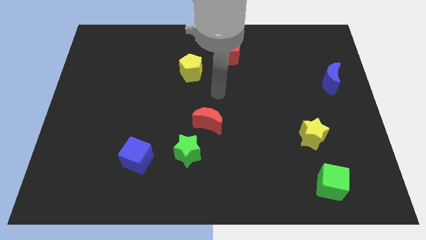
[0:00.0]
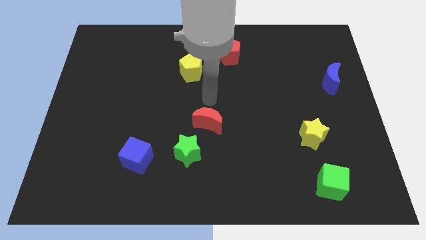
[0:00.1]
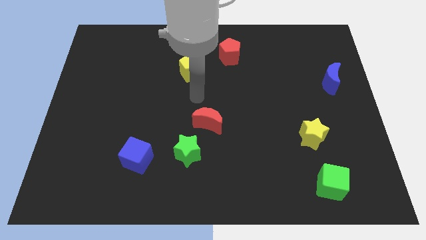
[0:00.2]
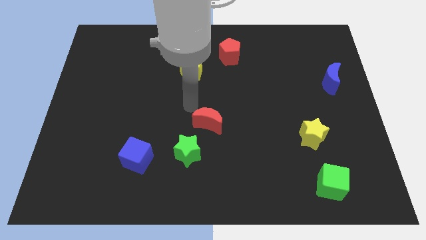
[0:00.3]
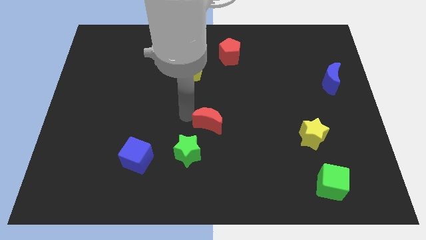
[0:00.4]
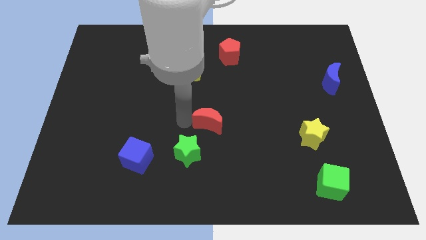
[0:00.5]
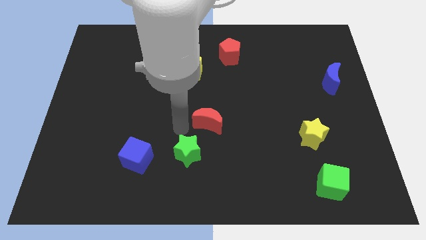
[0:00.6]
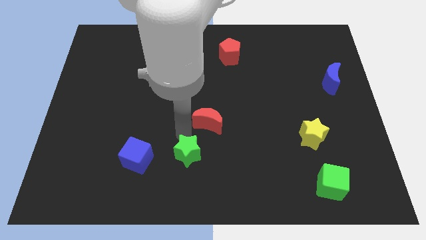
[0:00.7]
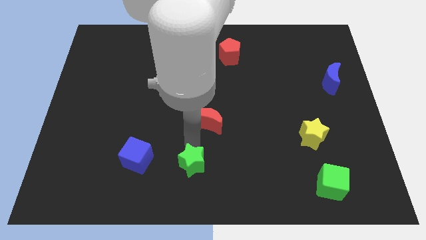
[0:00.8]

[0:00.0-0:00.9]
pull the red moon apart from the green star

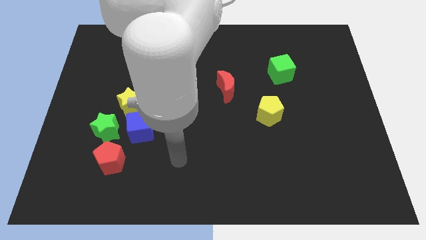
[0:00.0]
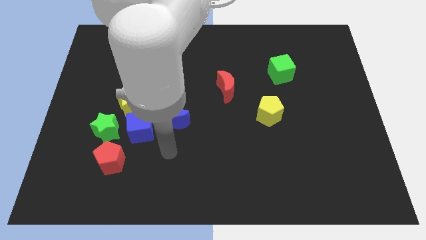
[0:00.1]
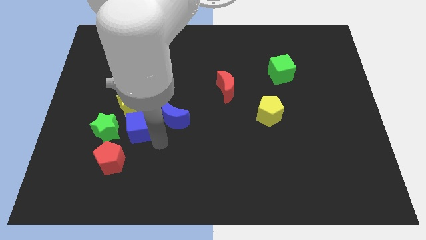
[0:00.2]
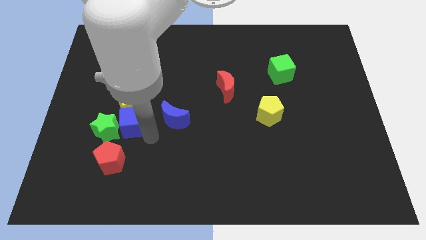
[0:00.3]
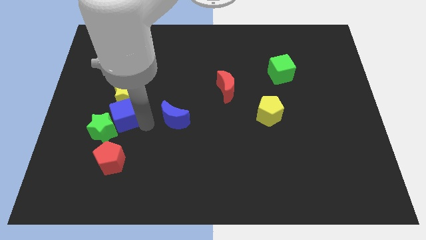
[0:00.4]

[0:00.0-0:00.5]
separate the blue moon from the blue cube

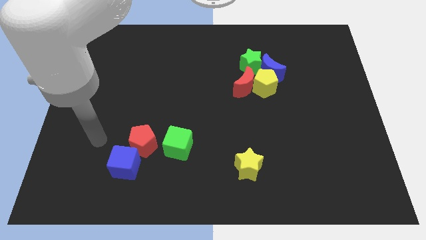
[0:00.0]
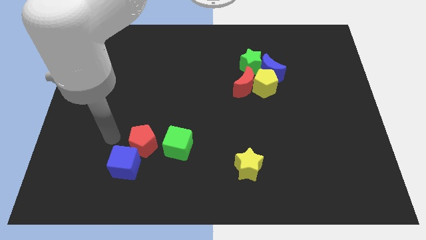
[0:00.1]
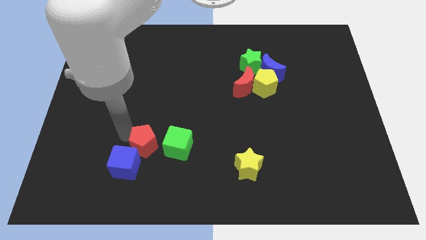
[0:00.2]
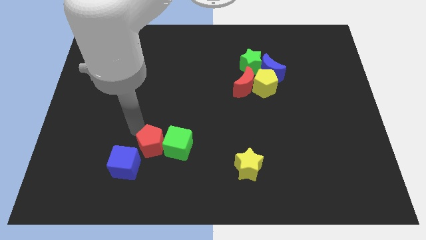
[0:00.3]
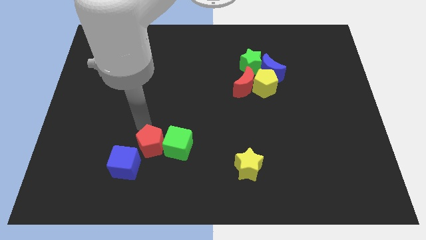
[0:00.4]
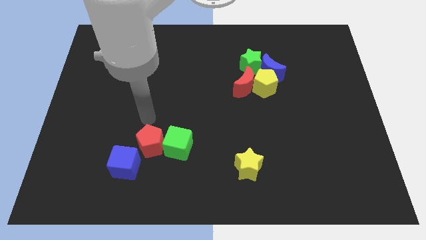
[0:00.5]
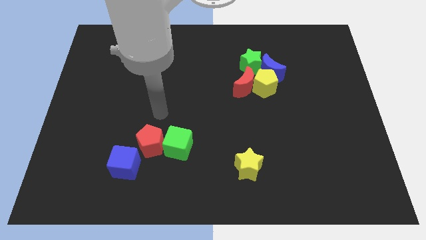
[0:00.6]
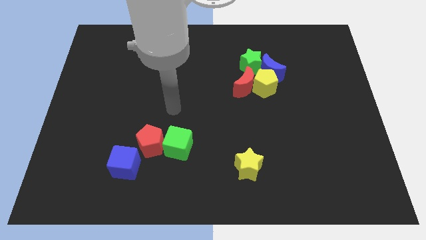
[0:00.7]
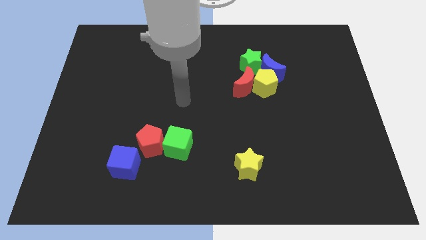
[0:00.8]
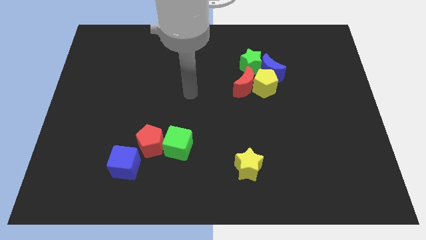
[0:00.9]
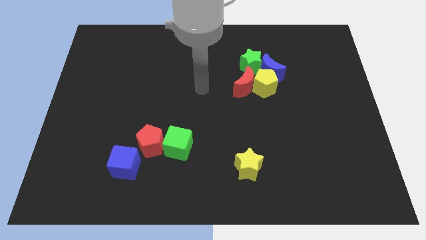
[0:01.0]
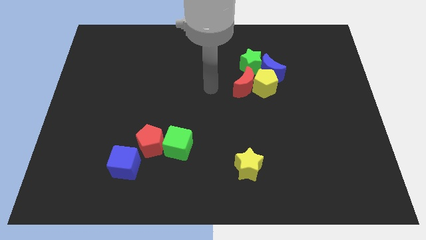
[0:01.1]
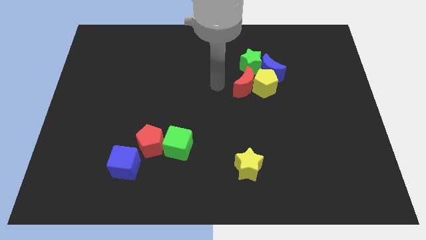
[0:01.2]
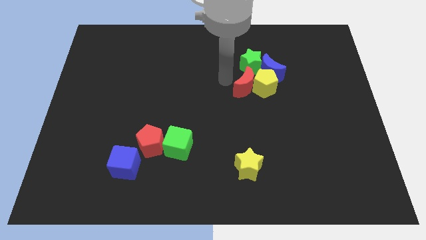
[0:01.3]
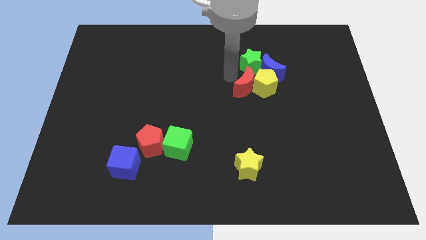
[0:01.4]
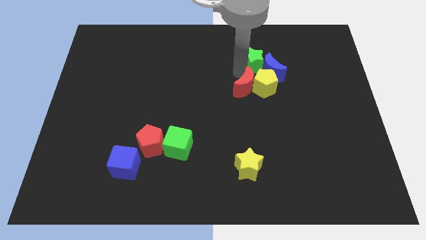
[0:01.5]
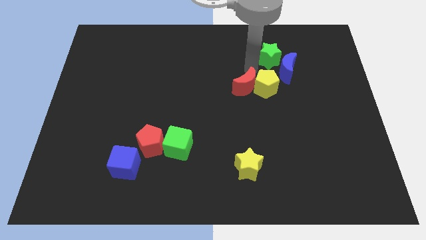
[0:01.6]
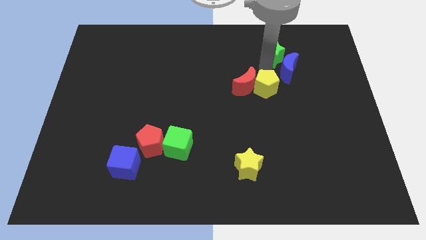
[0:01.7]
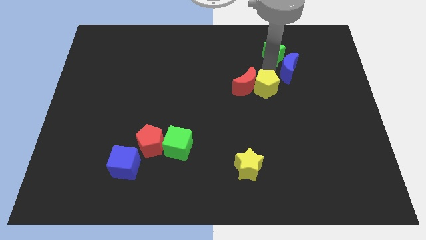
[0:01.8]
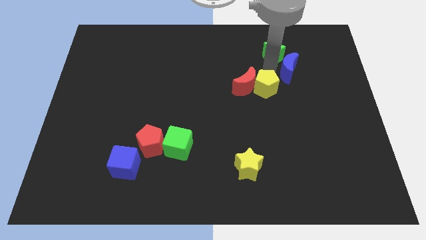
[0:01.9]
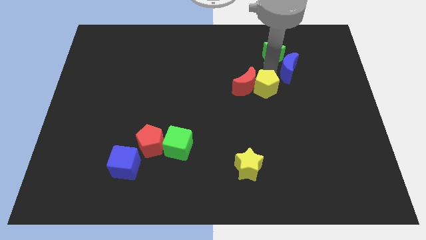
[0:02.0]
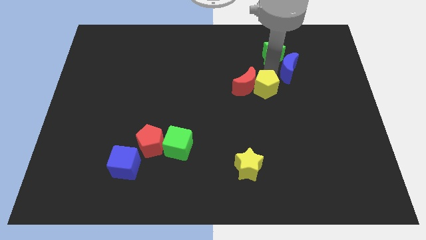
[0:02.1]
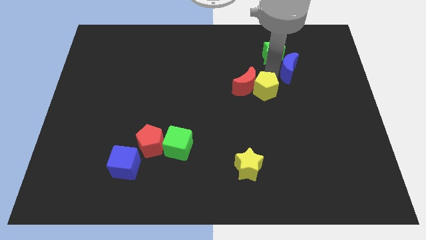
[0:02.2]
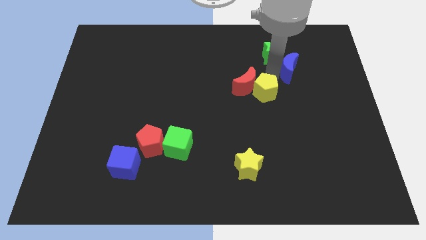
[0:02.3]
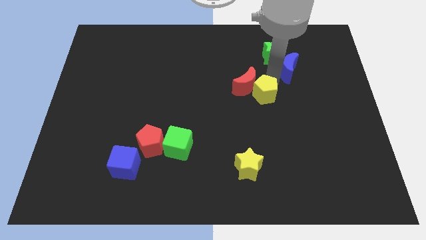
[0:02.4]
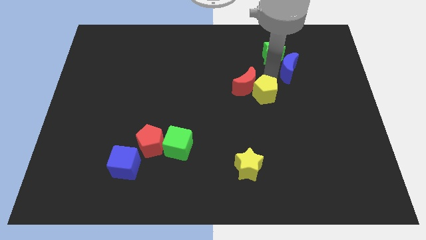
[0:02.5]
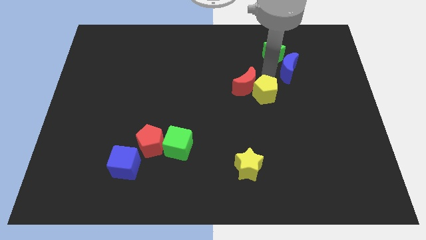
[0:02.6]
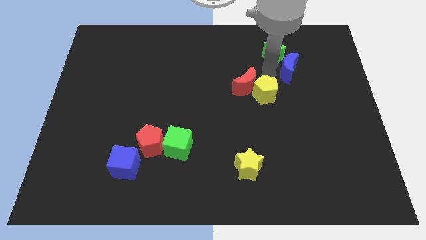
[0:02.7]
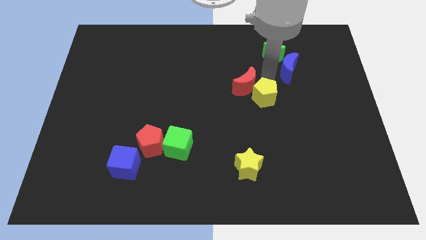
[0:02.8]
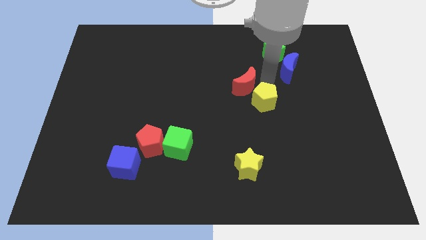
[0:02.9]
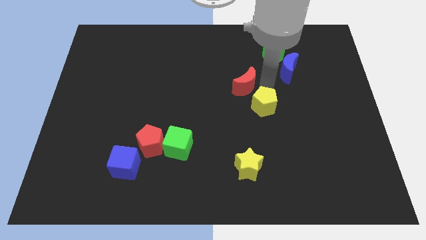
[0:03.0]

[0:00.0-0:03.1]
separate the yellow pentagon from the blue moon, red moon, and green star

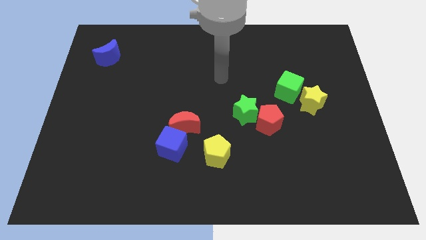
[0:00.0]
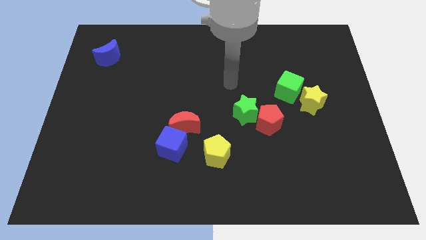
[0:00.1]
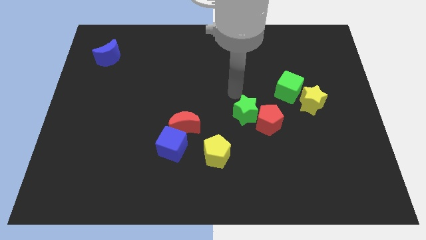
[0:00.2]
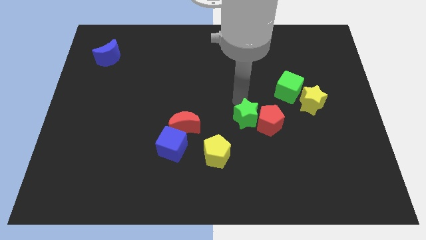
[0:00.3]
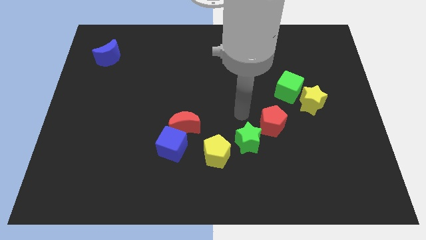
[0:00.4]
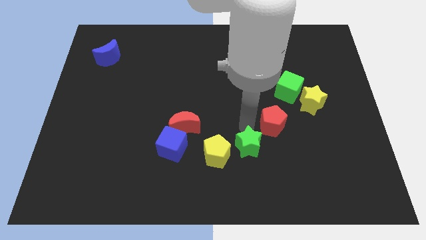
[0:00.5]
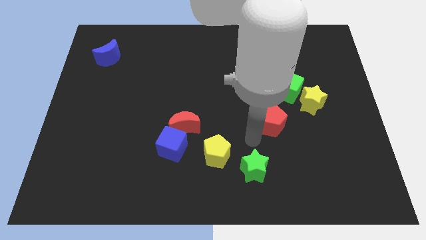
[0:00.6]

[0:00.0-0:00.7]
move the red pentagon away from the green star

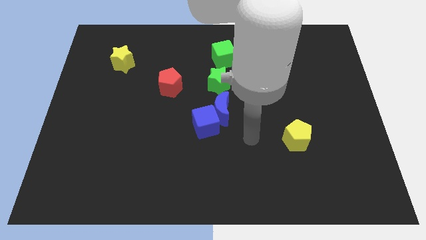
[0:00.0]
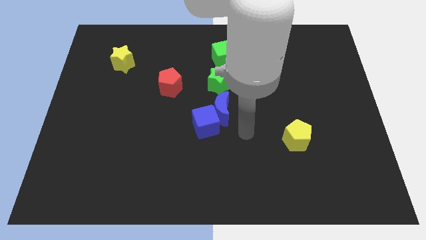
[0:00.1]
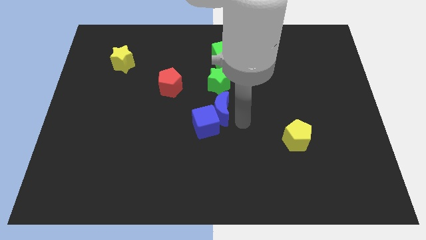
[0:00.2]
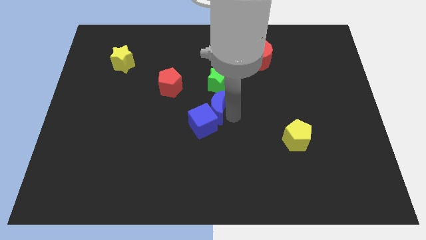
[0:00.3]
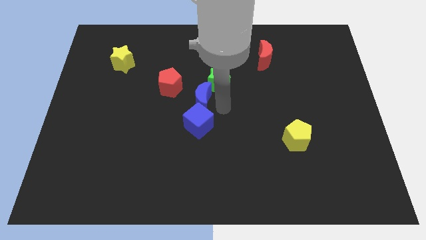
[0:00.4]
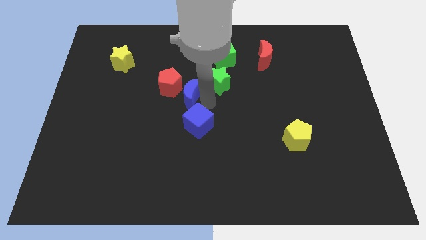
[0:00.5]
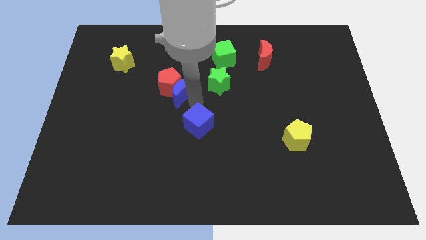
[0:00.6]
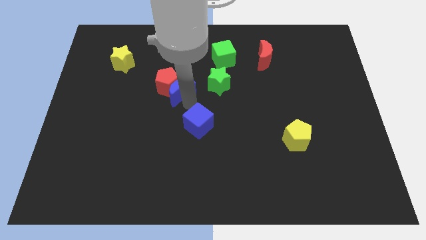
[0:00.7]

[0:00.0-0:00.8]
pull the blue cube apart from the blue moon

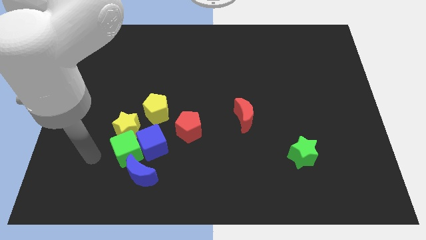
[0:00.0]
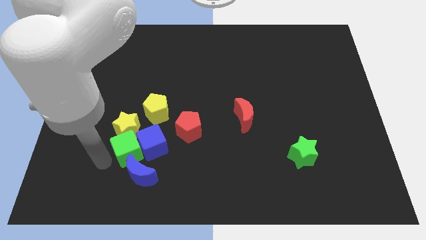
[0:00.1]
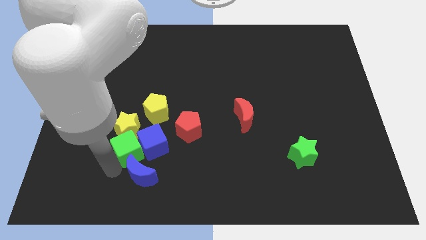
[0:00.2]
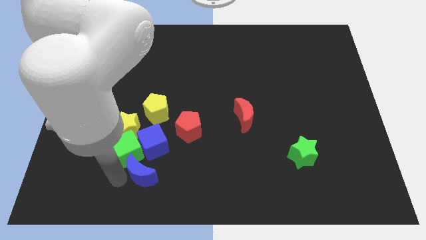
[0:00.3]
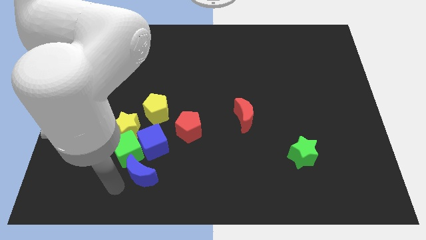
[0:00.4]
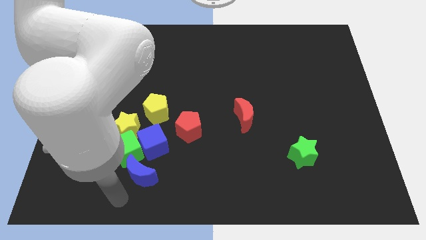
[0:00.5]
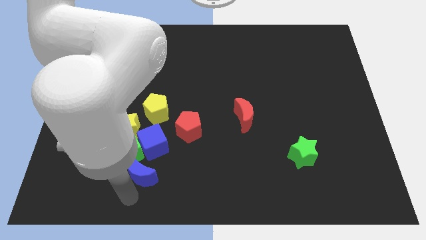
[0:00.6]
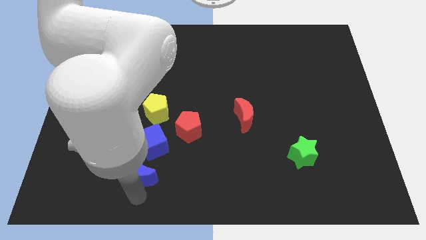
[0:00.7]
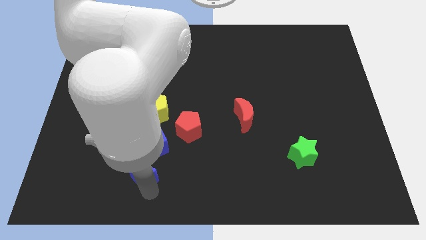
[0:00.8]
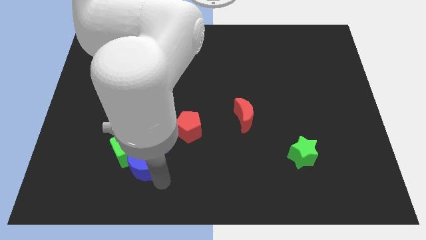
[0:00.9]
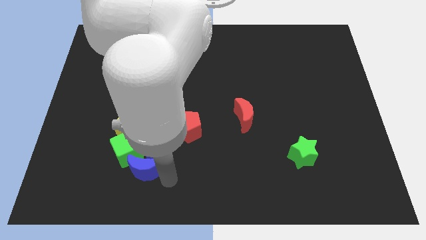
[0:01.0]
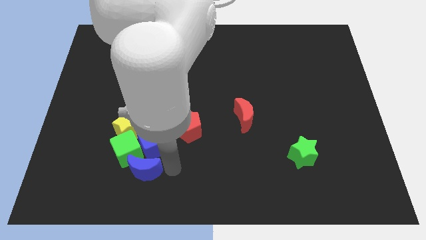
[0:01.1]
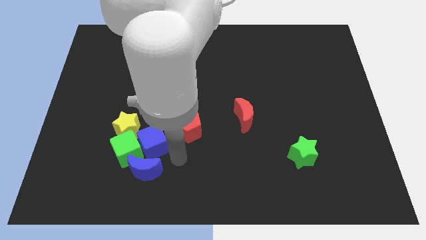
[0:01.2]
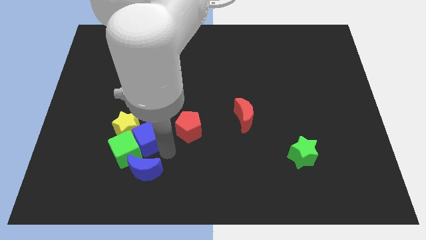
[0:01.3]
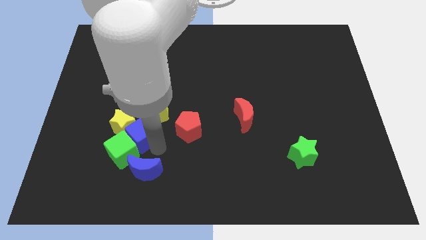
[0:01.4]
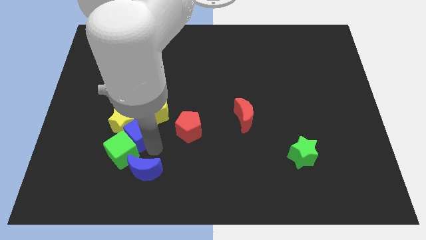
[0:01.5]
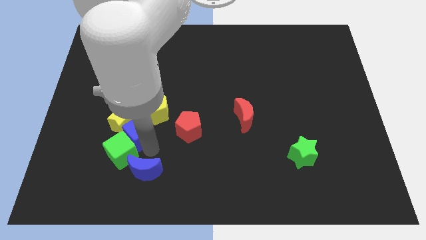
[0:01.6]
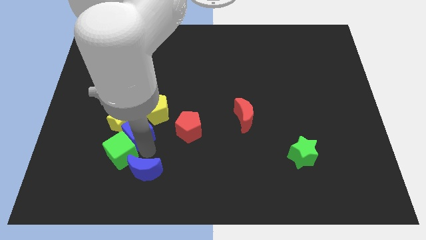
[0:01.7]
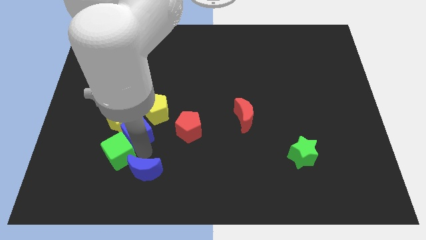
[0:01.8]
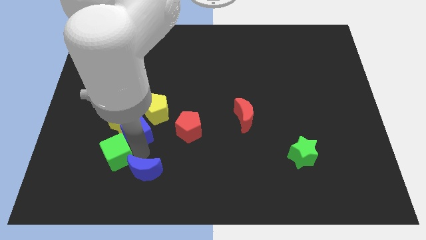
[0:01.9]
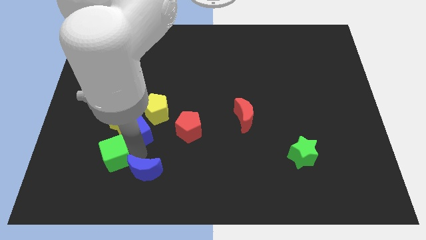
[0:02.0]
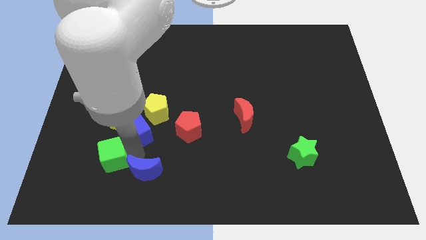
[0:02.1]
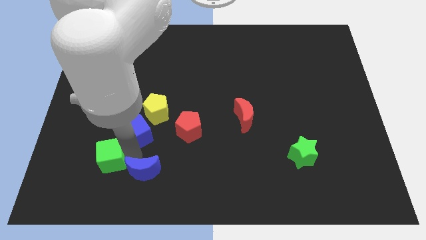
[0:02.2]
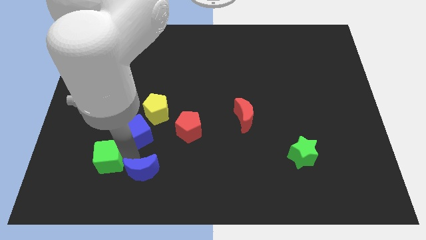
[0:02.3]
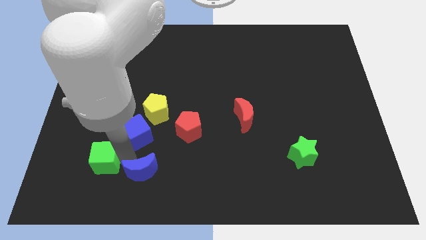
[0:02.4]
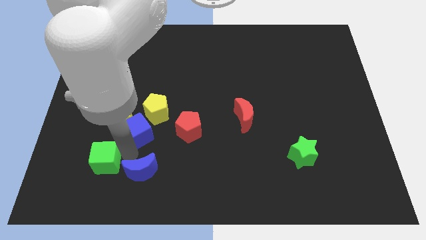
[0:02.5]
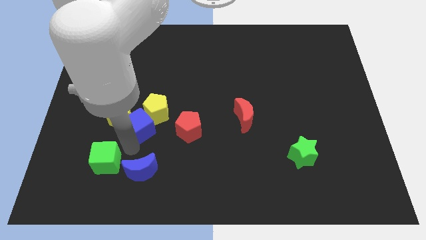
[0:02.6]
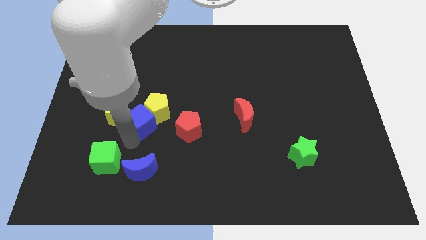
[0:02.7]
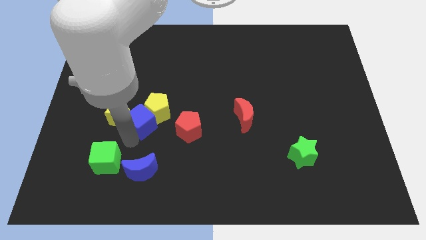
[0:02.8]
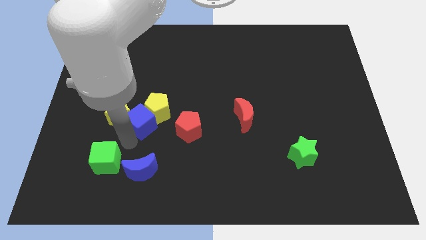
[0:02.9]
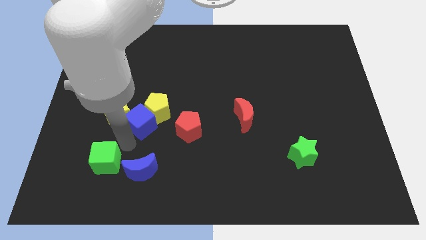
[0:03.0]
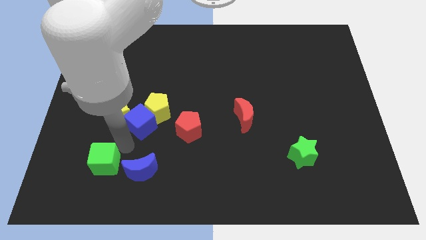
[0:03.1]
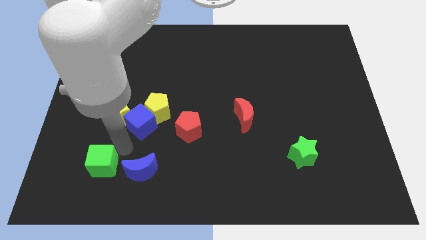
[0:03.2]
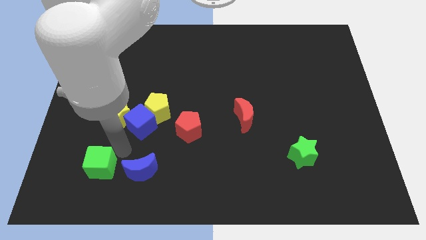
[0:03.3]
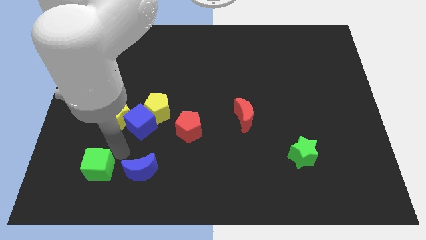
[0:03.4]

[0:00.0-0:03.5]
pull the green cube apart from the blue cube, yellow star, and blue moon
